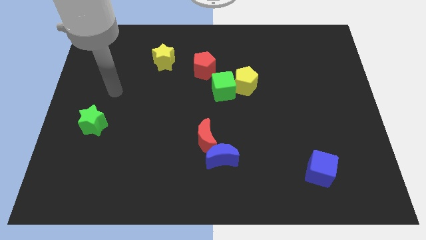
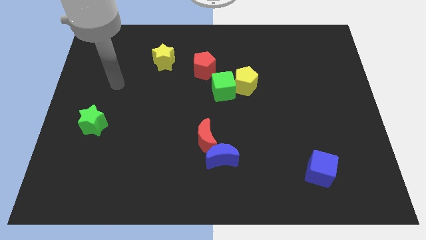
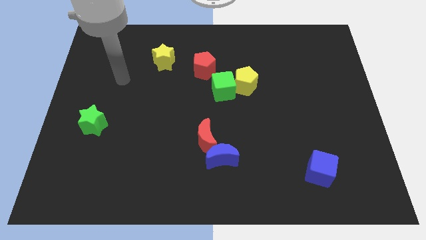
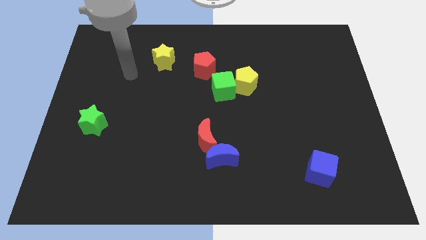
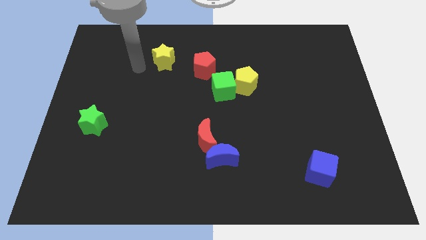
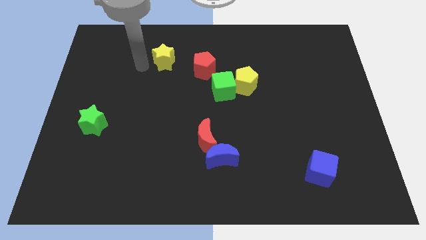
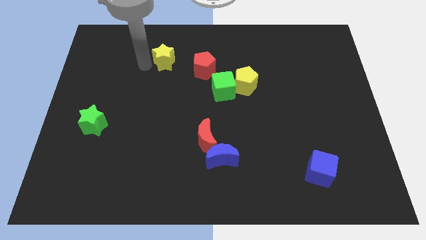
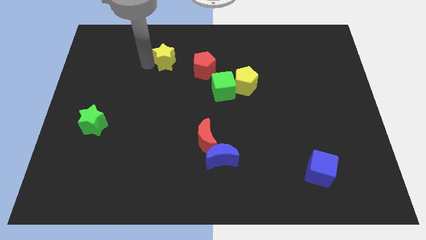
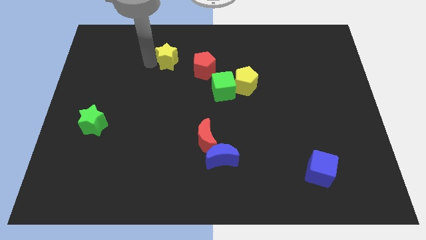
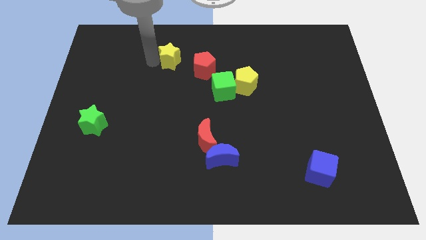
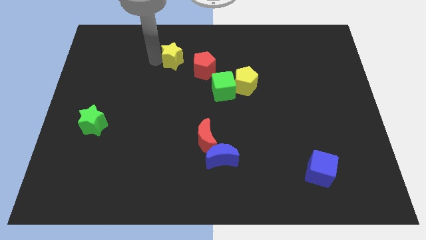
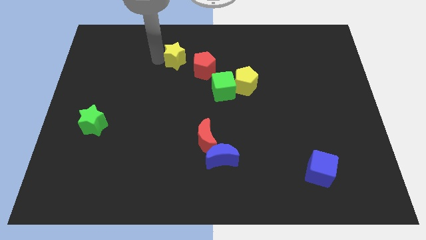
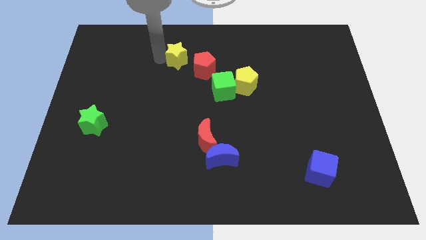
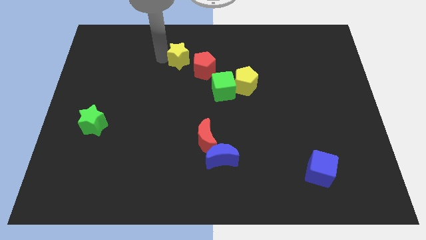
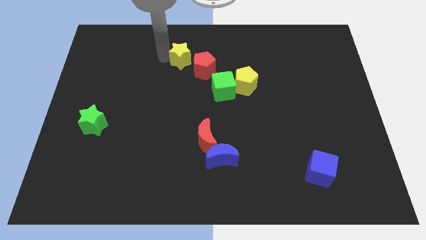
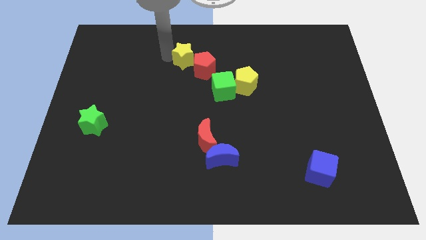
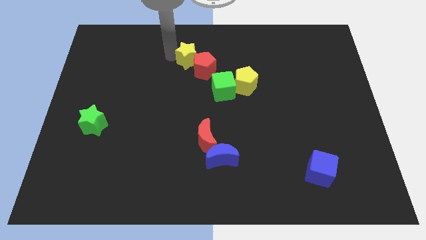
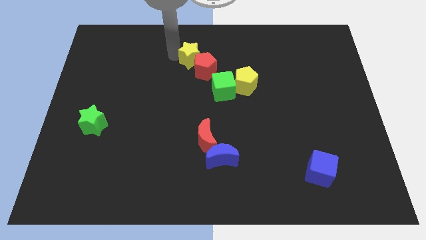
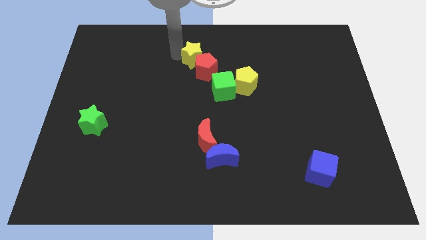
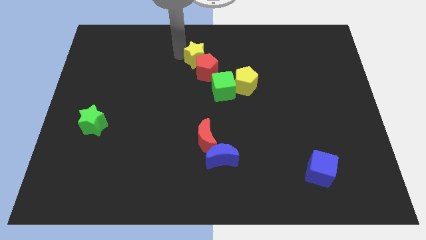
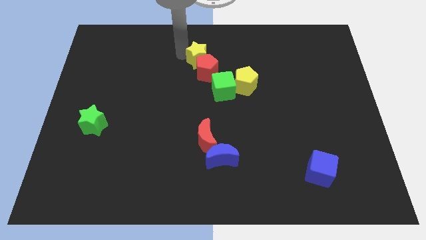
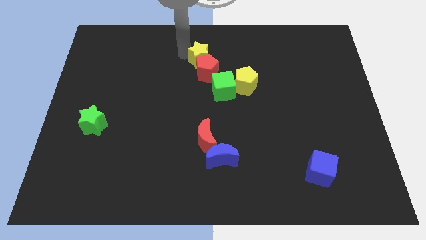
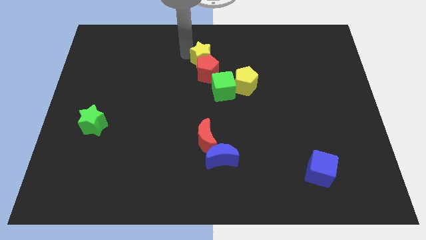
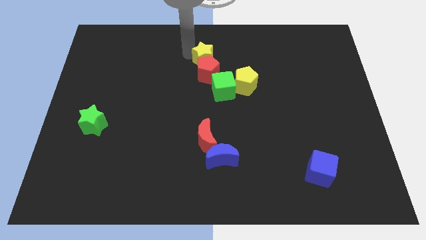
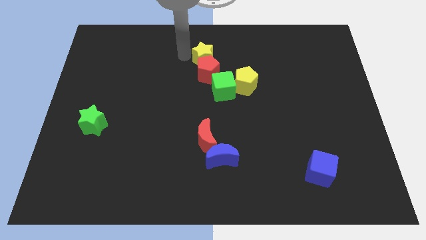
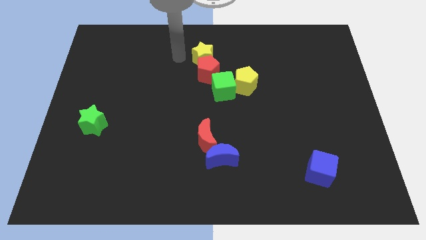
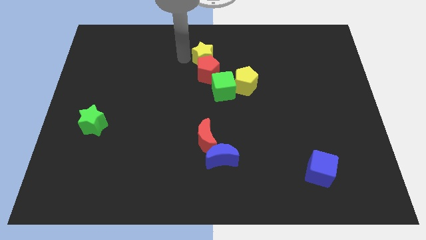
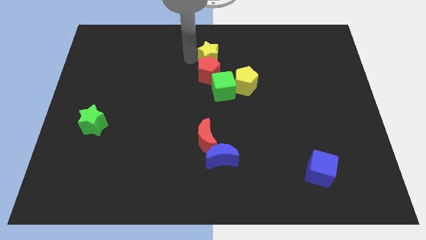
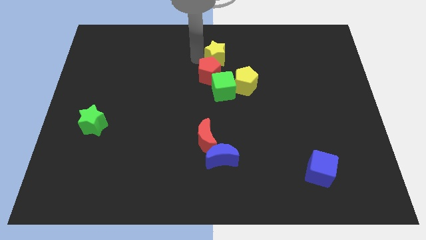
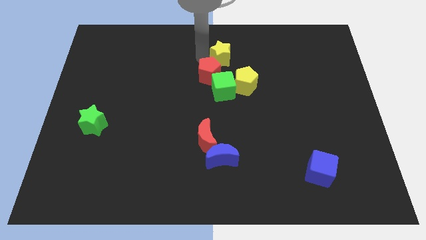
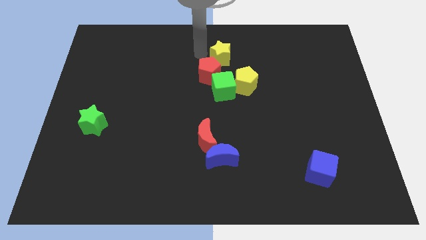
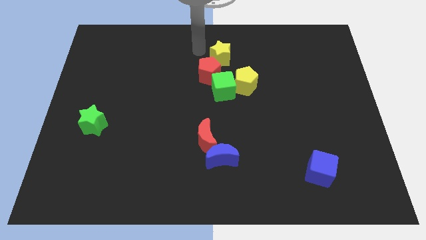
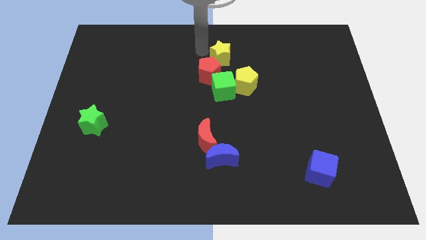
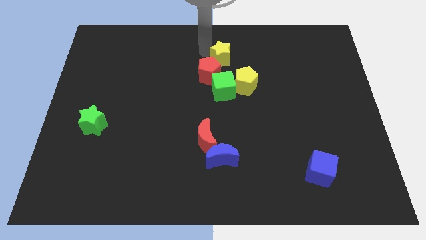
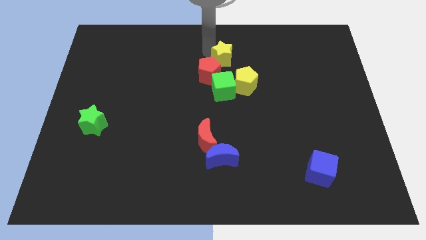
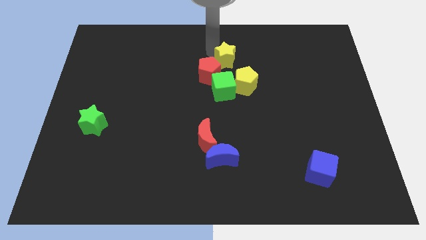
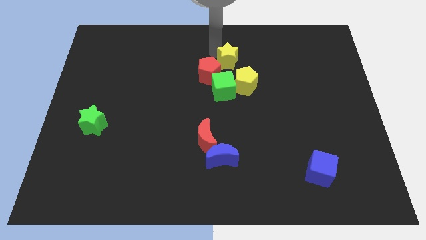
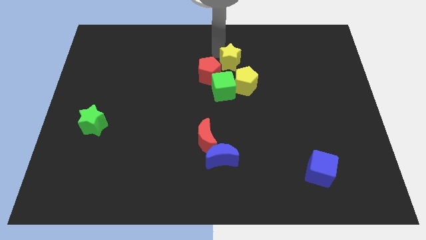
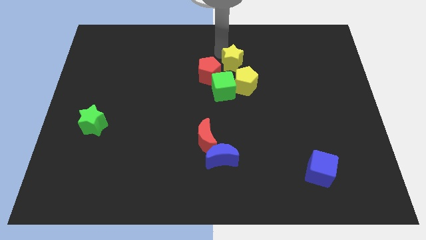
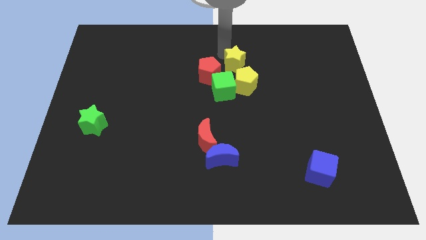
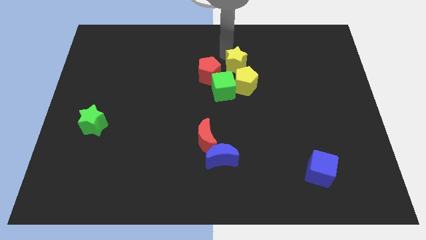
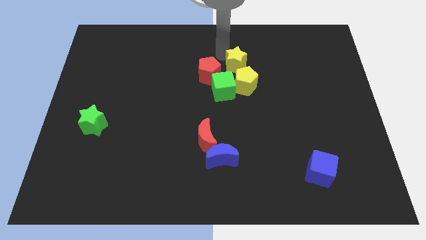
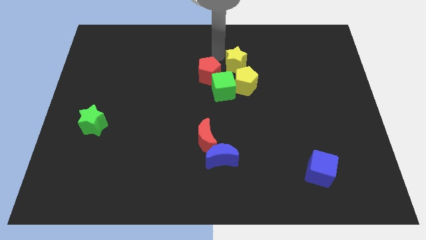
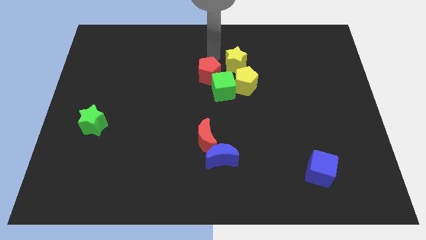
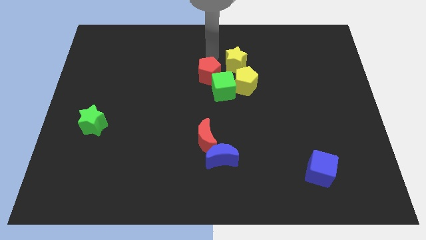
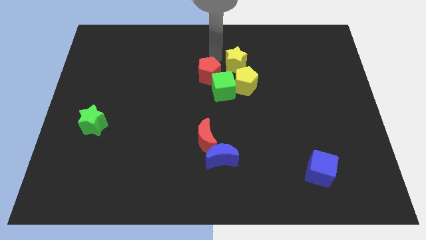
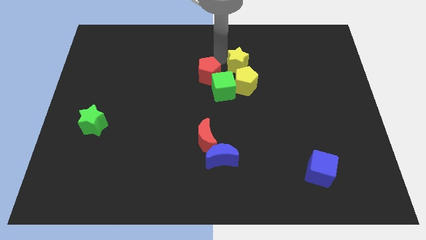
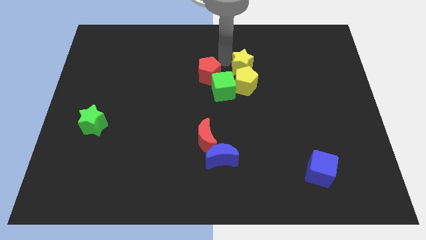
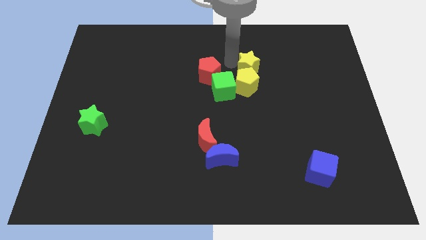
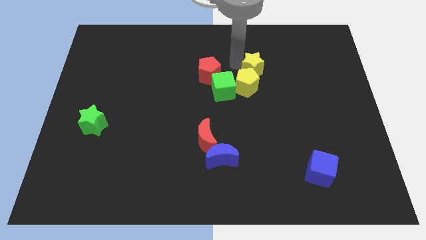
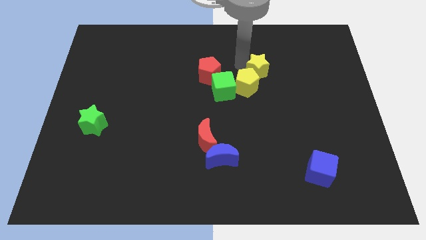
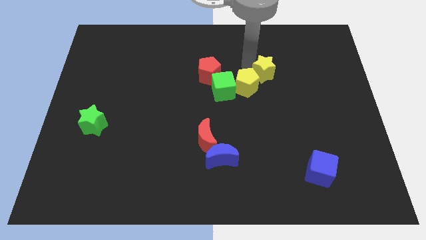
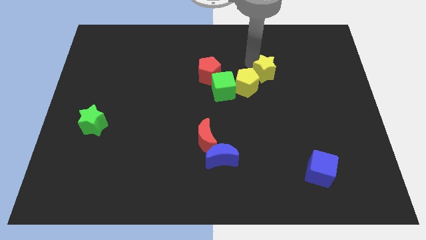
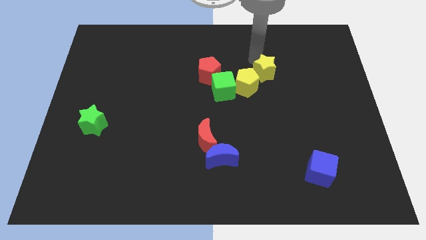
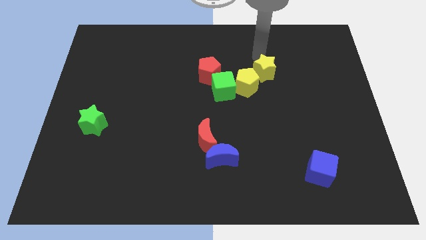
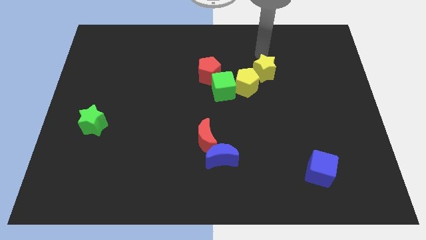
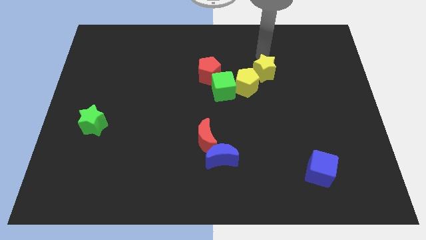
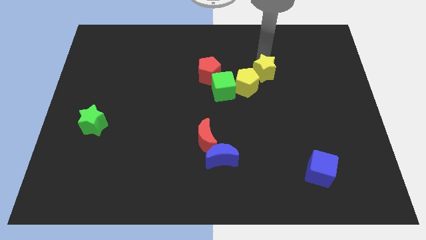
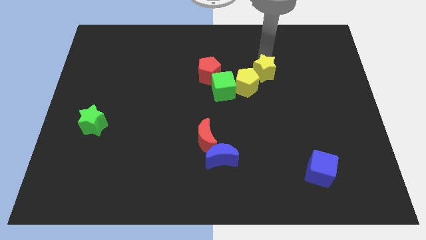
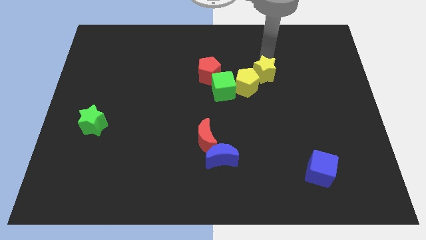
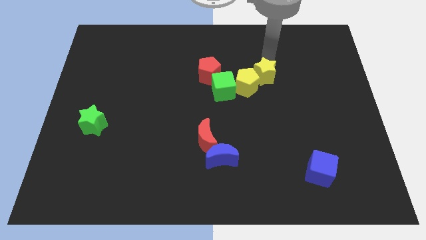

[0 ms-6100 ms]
push the yellow star right of the green cube
